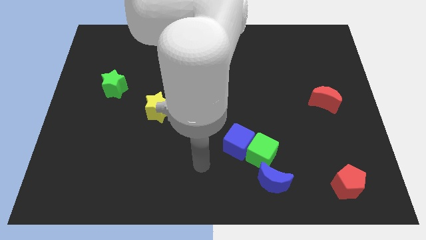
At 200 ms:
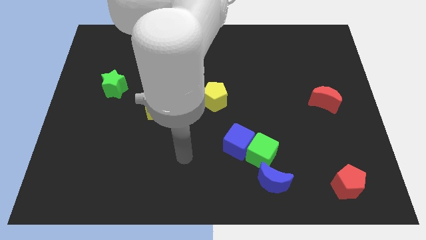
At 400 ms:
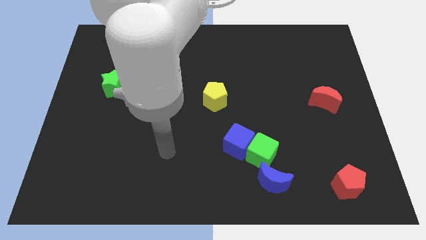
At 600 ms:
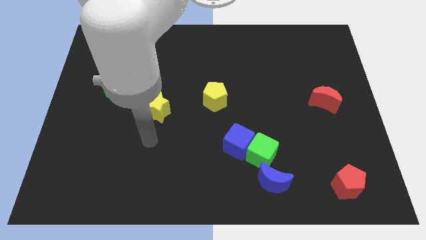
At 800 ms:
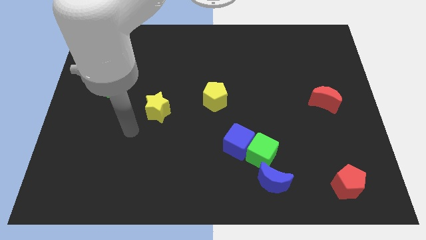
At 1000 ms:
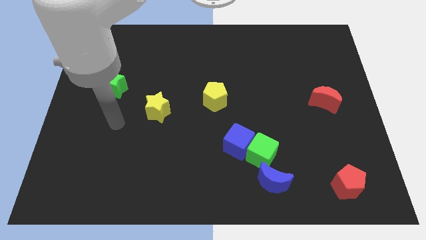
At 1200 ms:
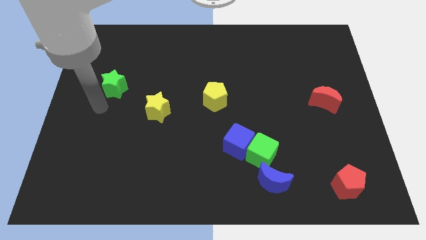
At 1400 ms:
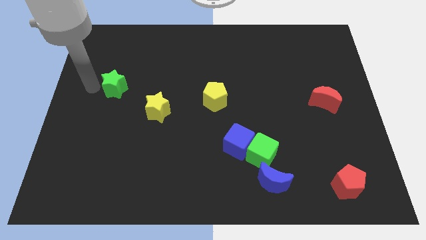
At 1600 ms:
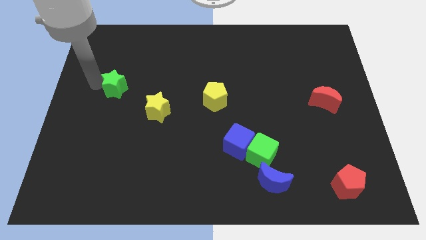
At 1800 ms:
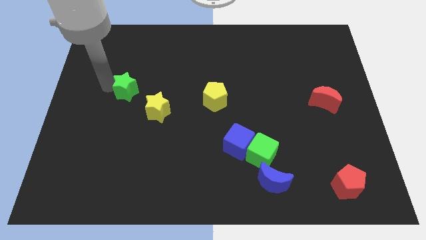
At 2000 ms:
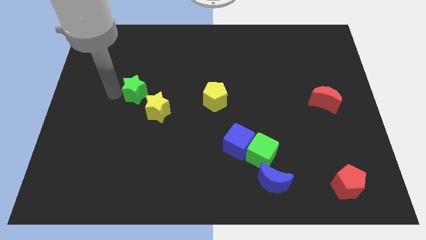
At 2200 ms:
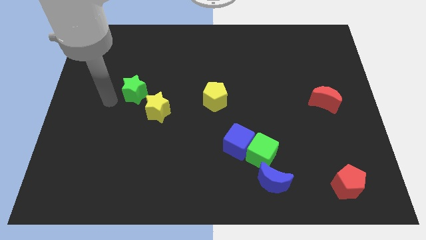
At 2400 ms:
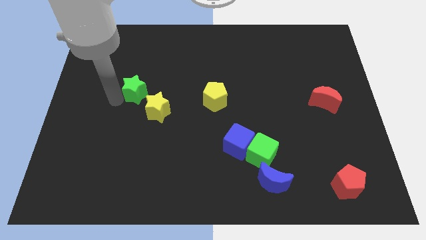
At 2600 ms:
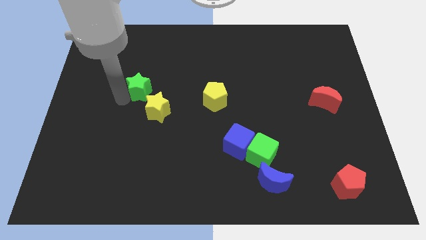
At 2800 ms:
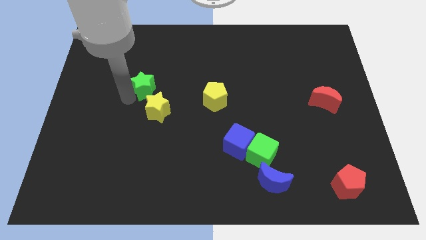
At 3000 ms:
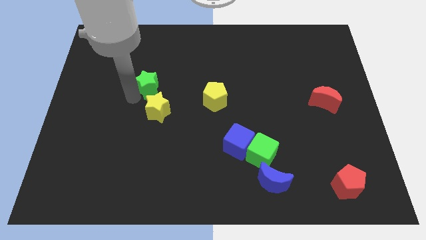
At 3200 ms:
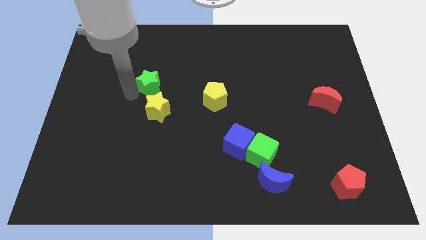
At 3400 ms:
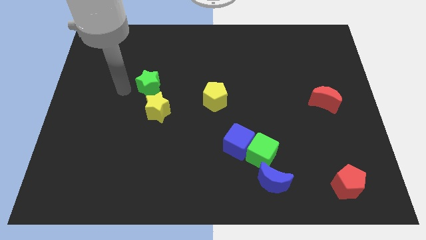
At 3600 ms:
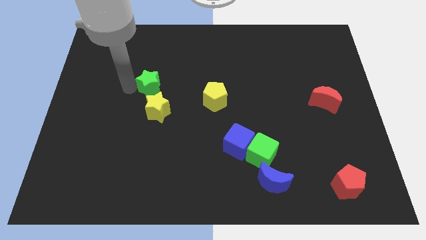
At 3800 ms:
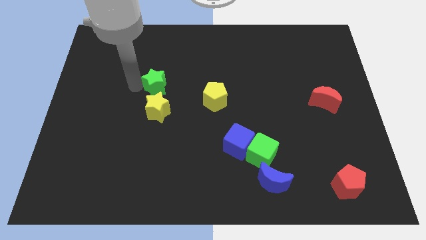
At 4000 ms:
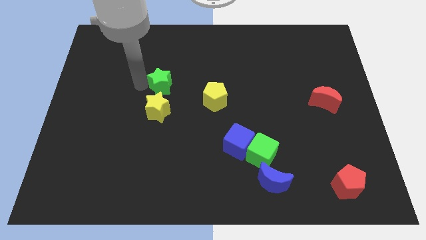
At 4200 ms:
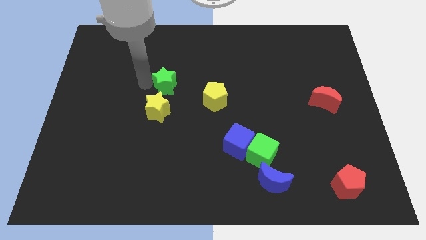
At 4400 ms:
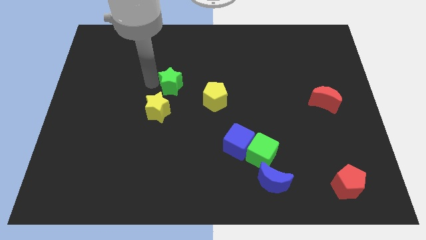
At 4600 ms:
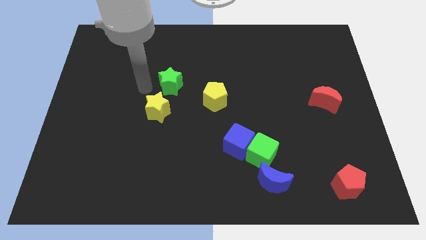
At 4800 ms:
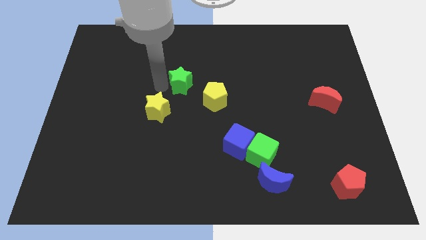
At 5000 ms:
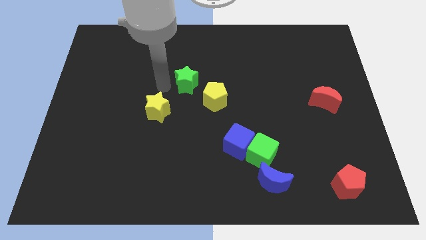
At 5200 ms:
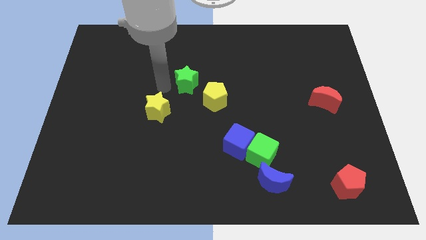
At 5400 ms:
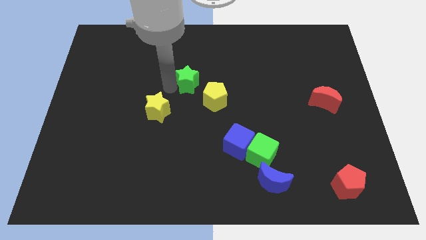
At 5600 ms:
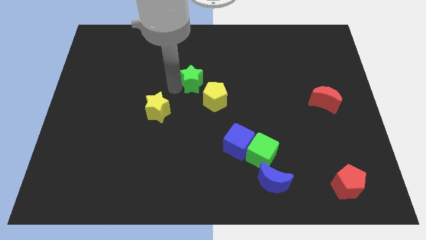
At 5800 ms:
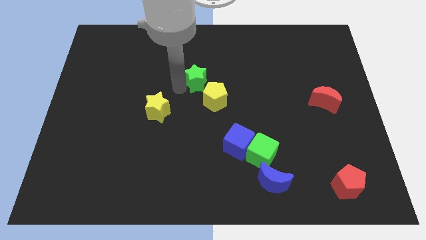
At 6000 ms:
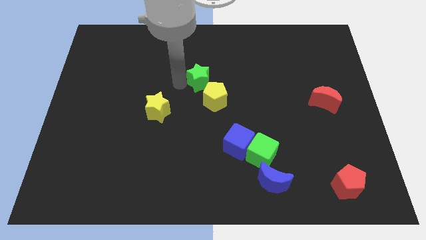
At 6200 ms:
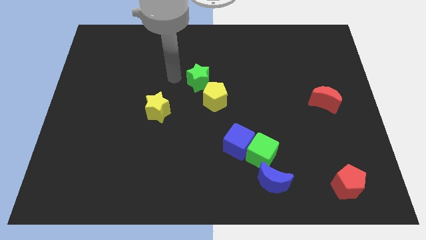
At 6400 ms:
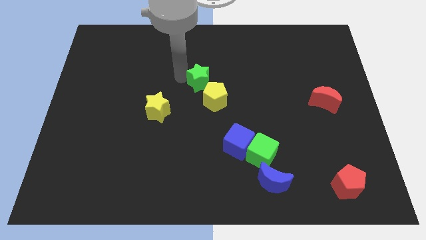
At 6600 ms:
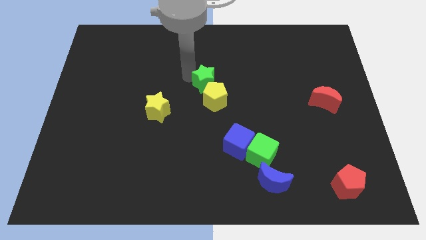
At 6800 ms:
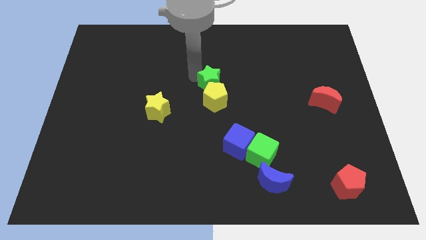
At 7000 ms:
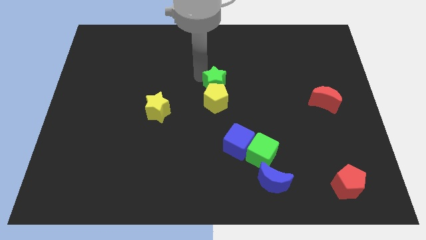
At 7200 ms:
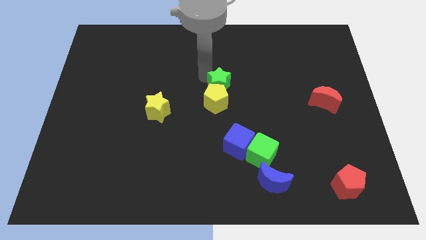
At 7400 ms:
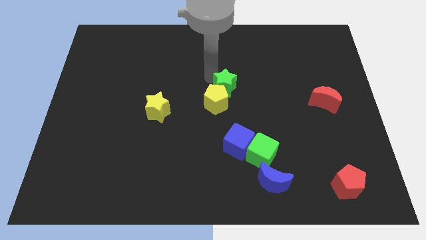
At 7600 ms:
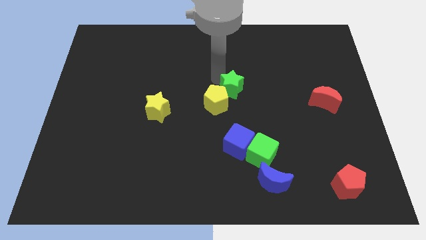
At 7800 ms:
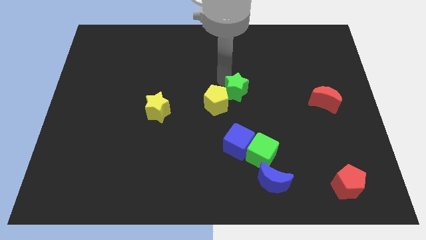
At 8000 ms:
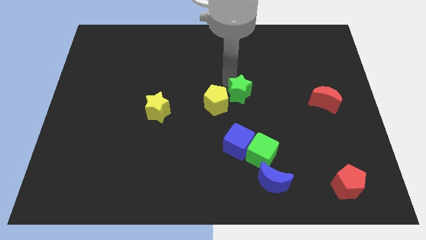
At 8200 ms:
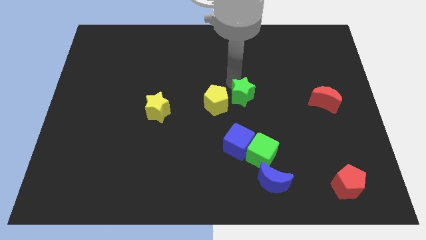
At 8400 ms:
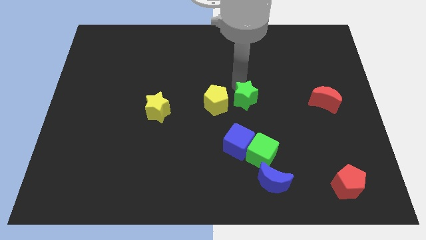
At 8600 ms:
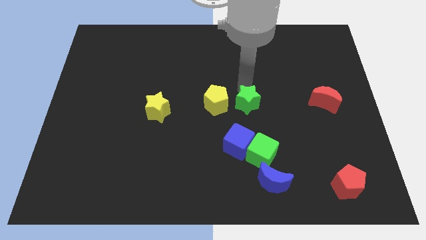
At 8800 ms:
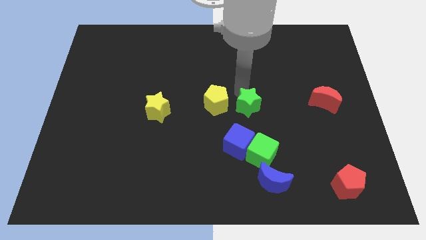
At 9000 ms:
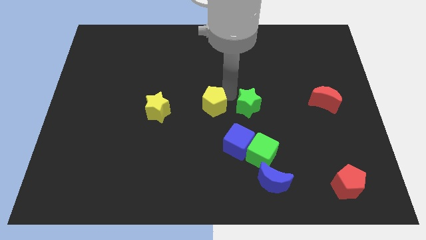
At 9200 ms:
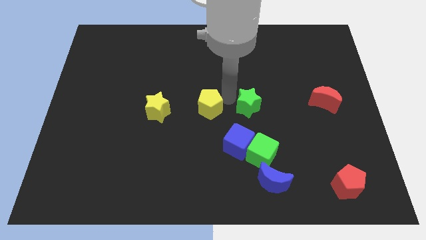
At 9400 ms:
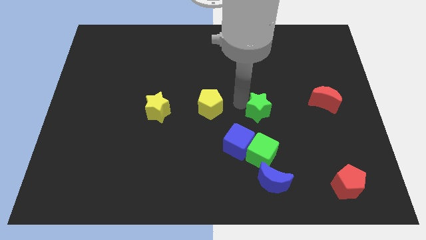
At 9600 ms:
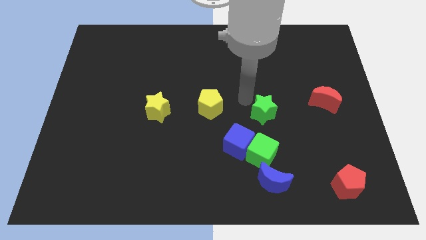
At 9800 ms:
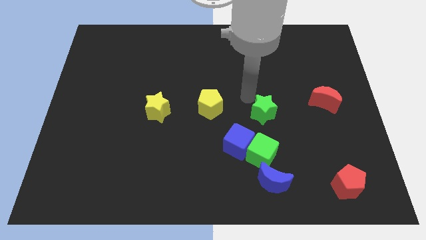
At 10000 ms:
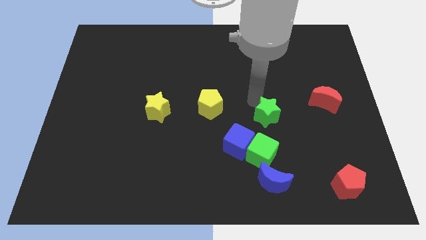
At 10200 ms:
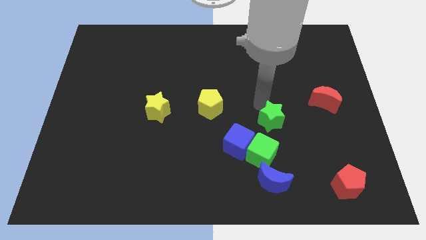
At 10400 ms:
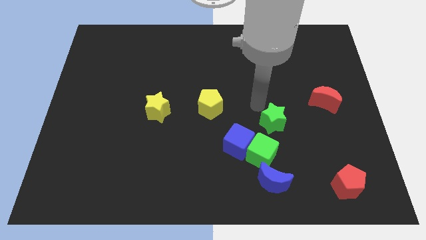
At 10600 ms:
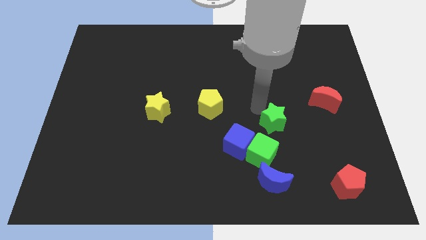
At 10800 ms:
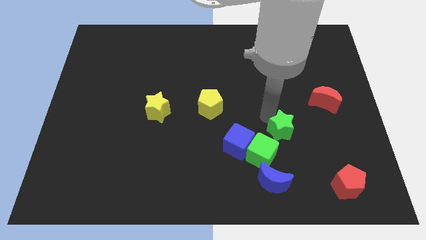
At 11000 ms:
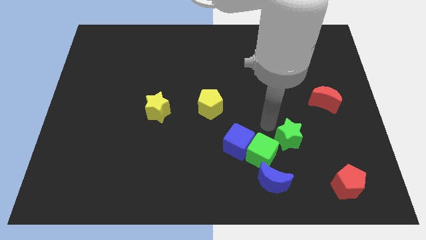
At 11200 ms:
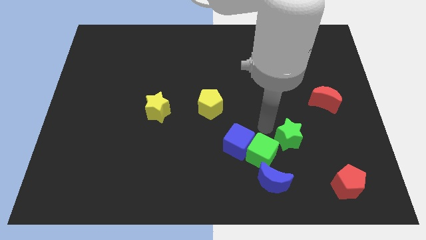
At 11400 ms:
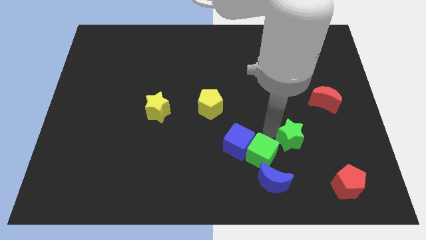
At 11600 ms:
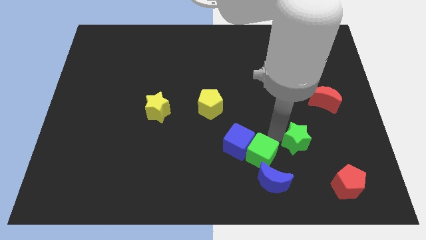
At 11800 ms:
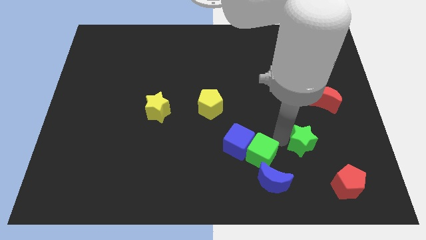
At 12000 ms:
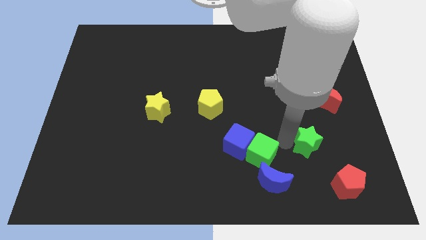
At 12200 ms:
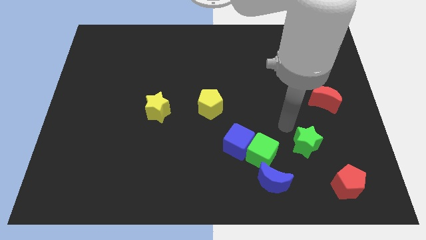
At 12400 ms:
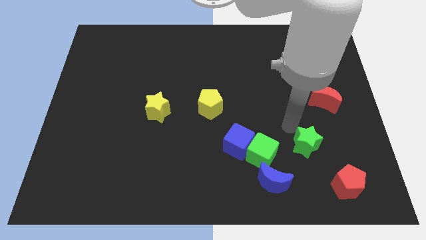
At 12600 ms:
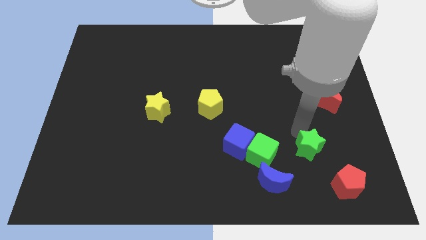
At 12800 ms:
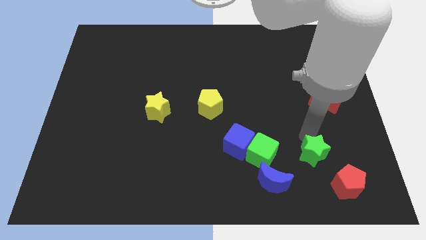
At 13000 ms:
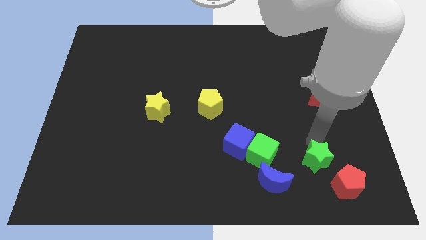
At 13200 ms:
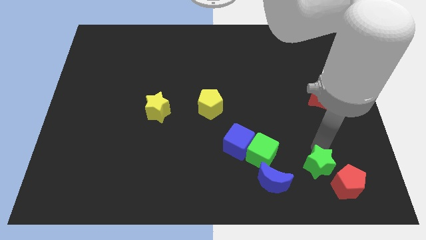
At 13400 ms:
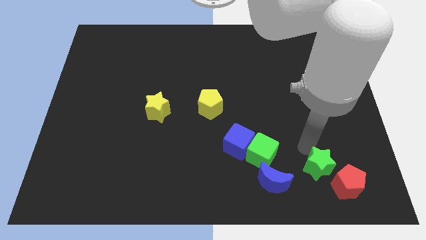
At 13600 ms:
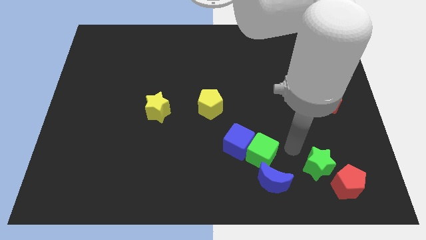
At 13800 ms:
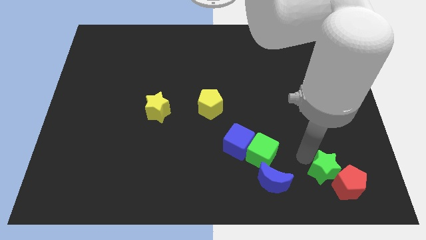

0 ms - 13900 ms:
push the green star to the red pentagon
